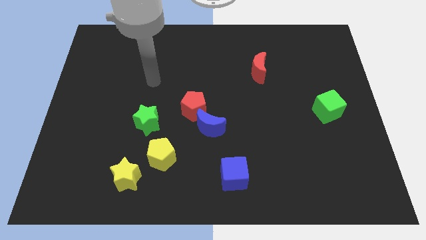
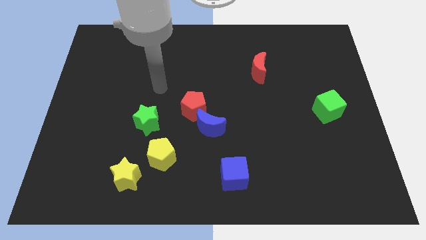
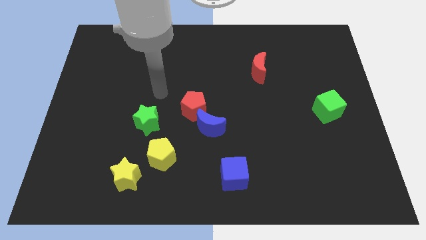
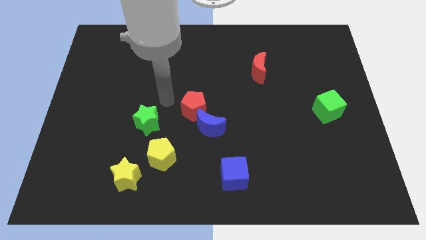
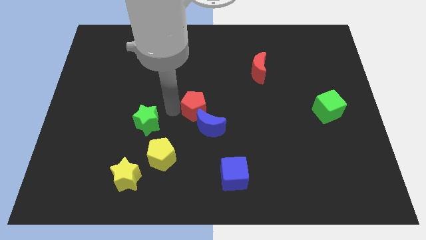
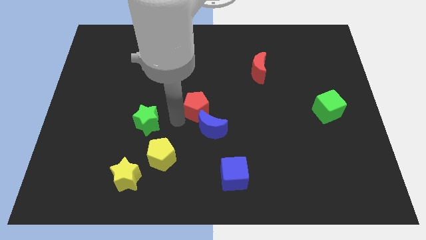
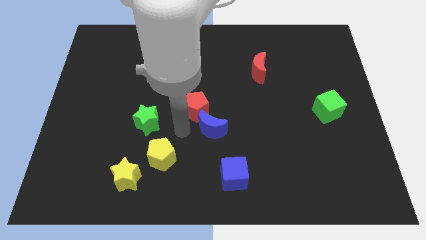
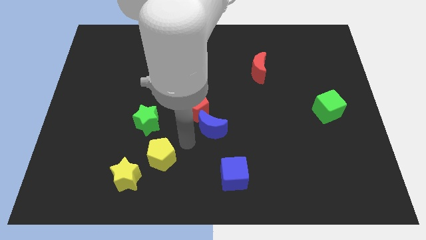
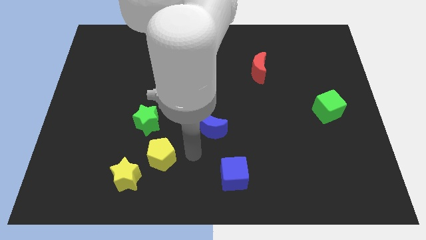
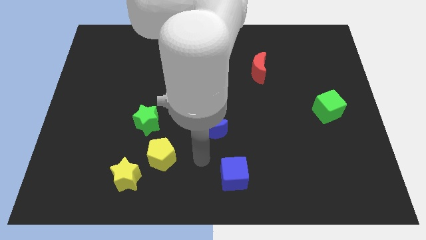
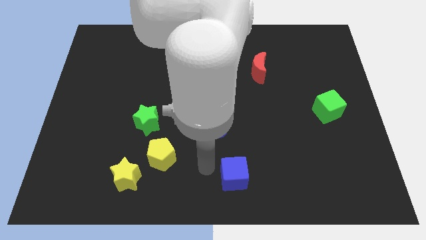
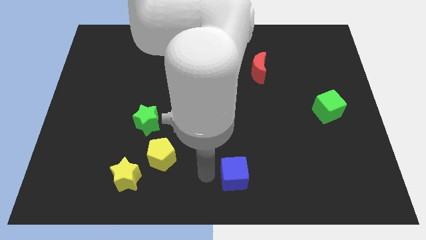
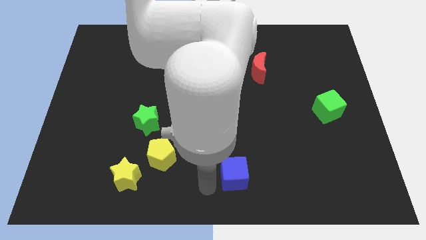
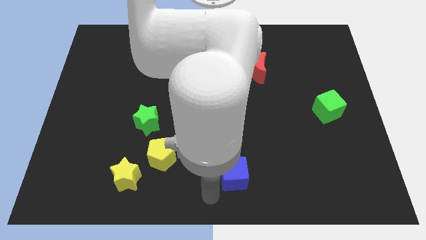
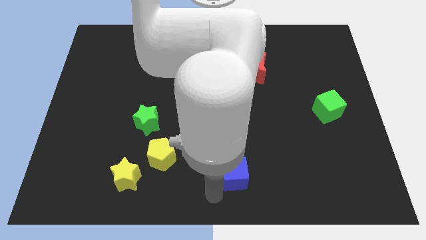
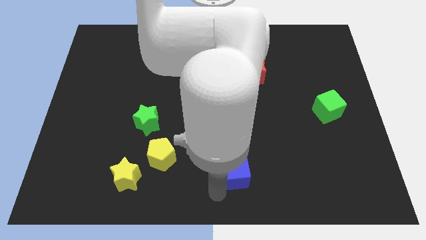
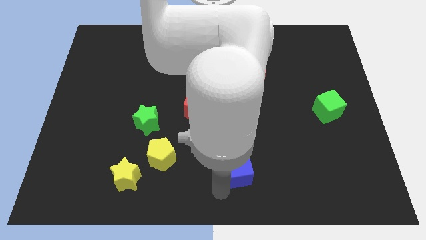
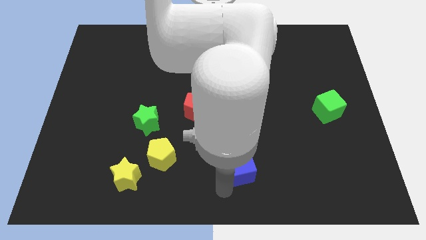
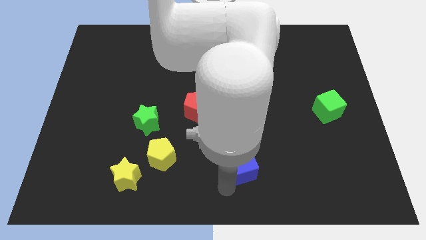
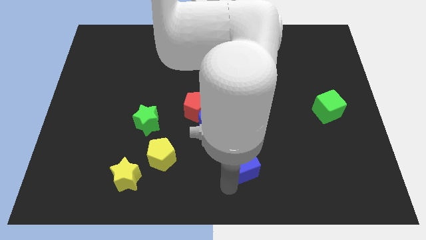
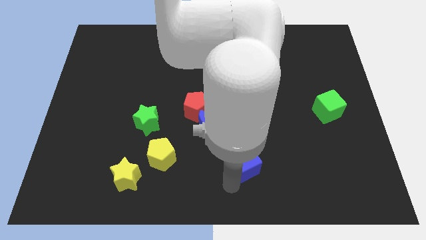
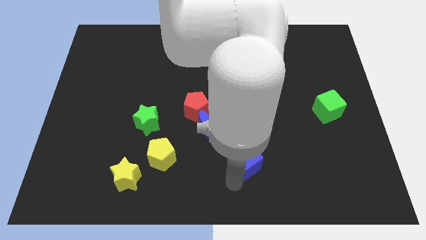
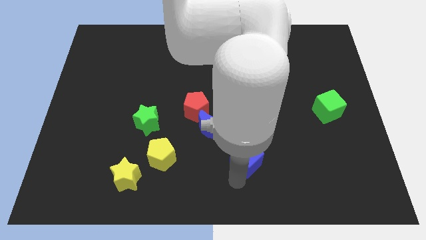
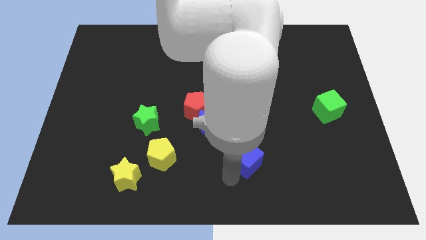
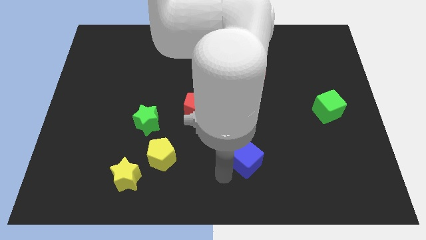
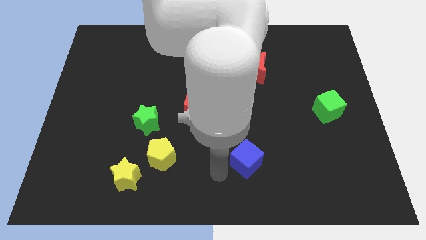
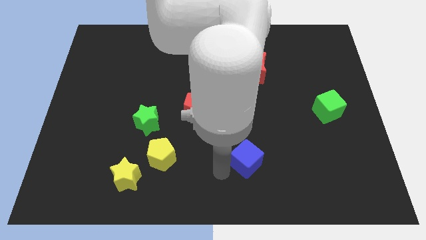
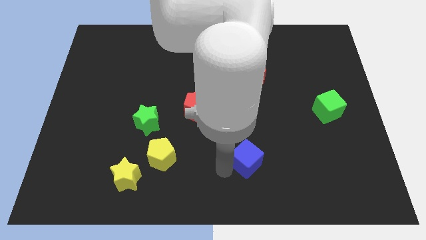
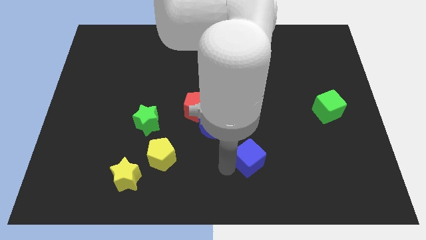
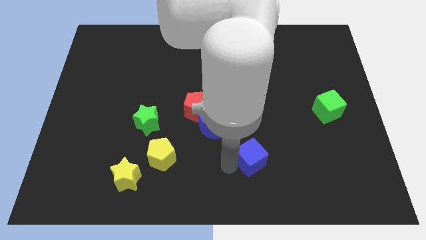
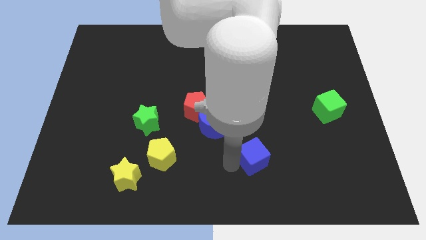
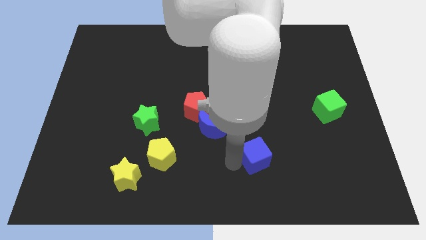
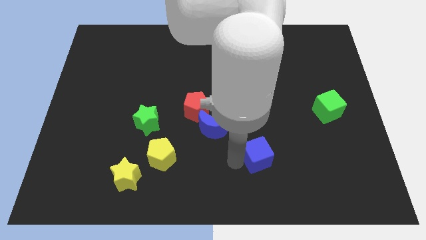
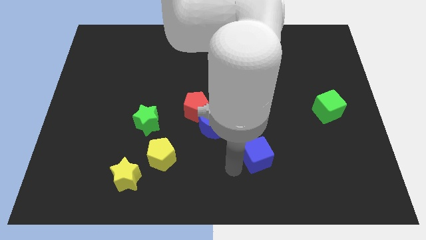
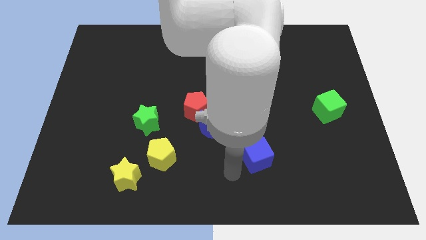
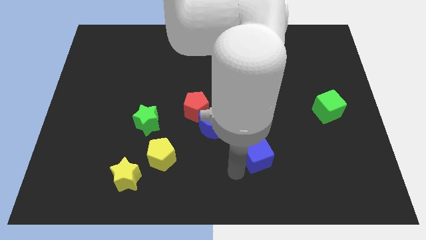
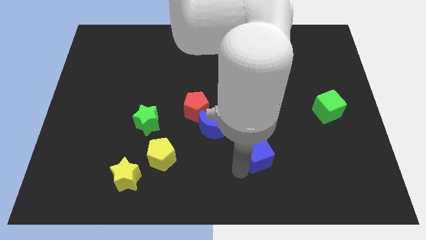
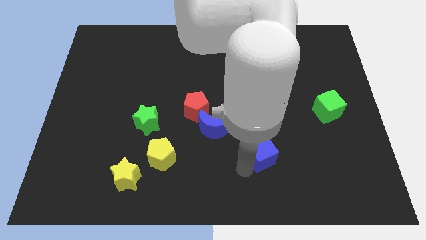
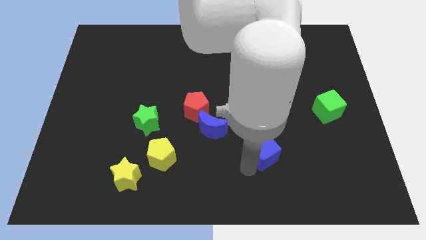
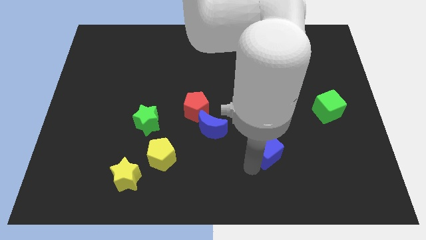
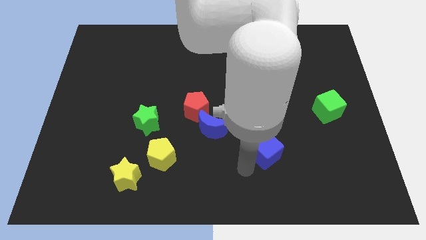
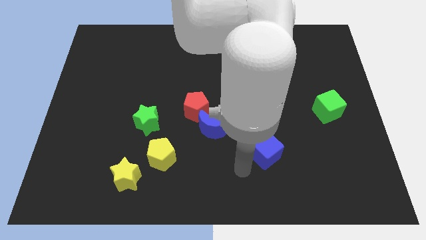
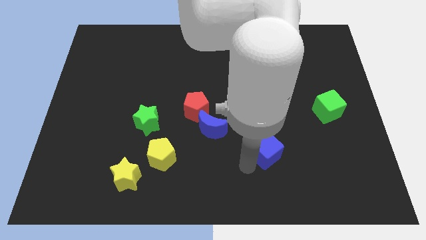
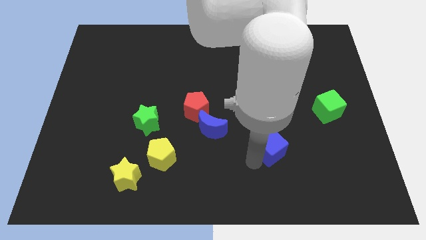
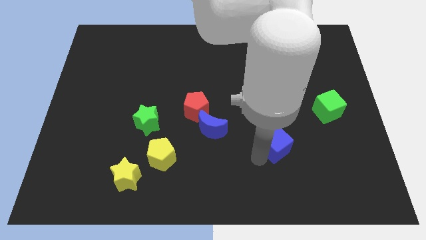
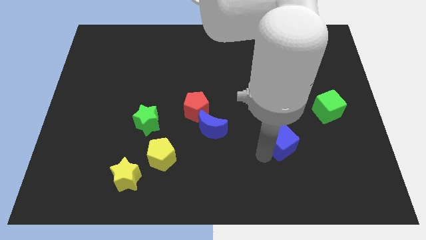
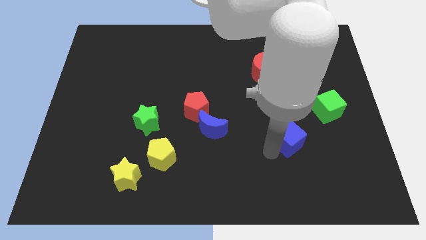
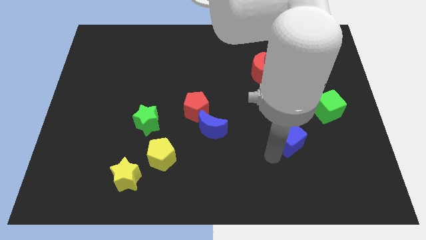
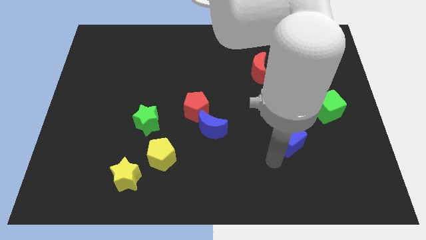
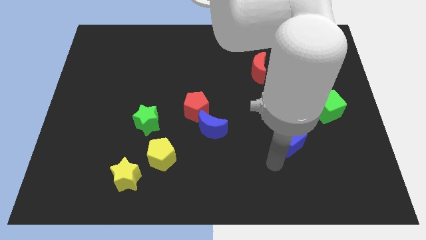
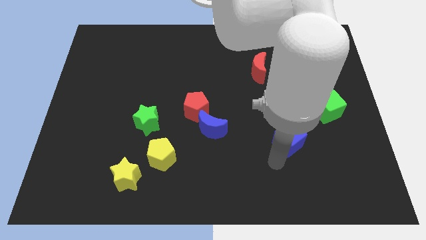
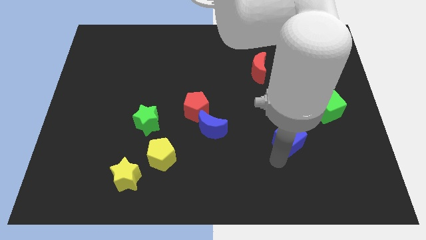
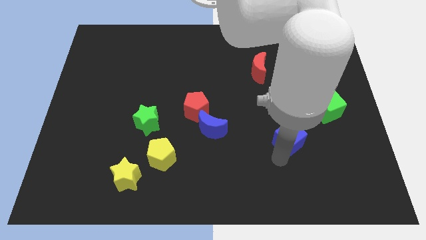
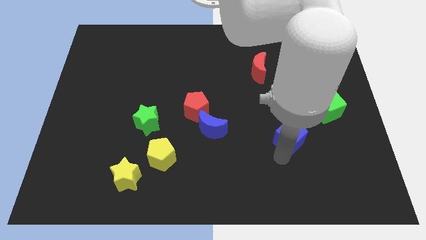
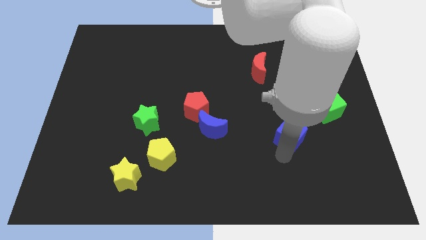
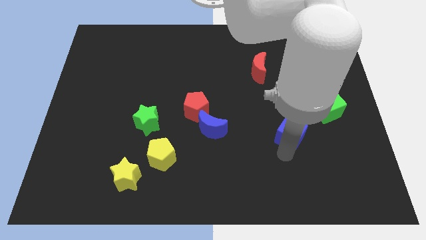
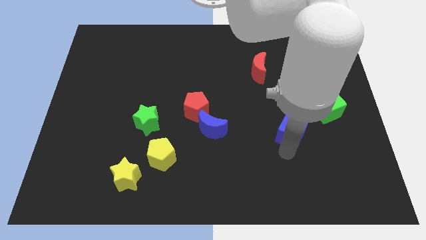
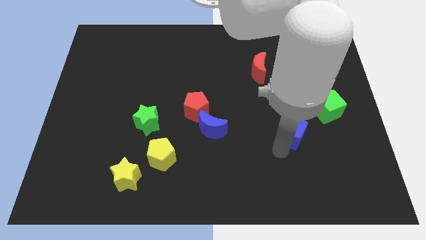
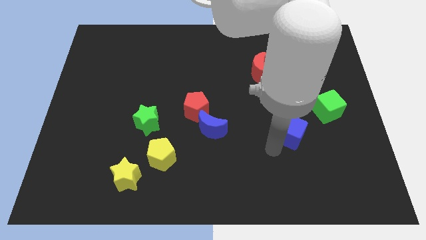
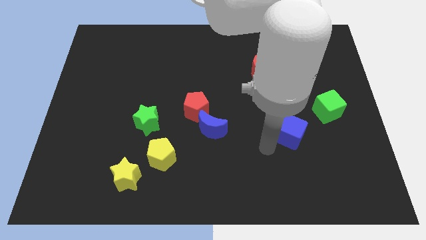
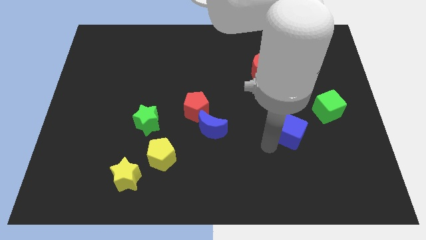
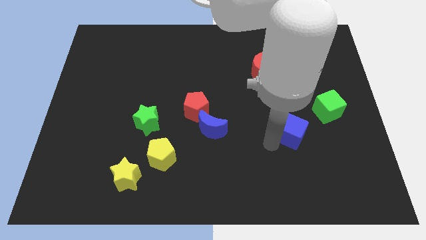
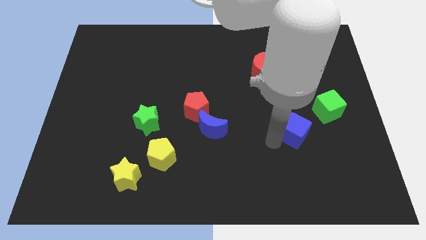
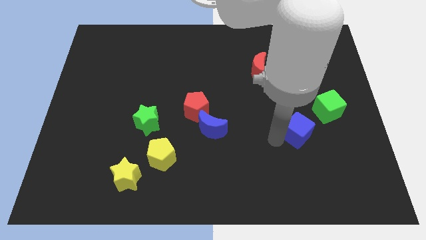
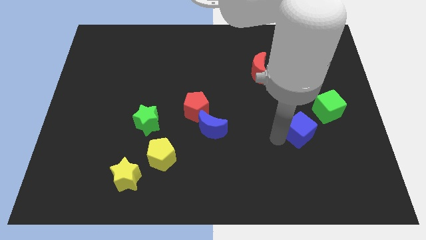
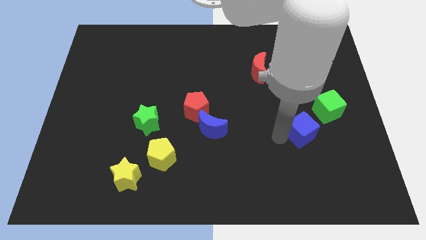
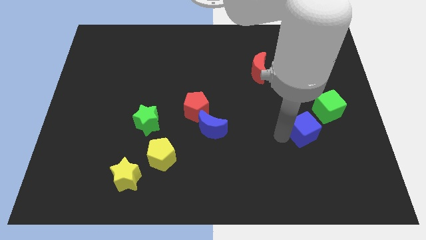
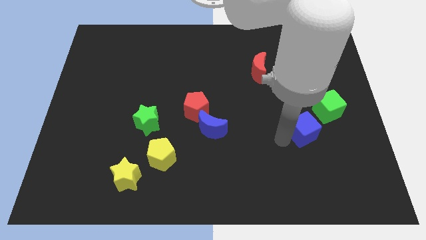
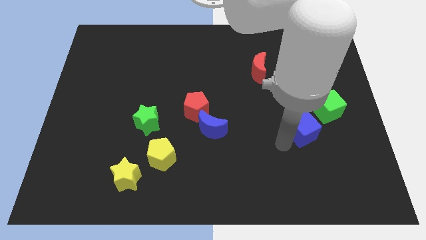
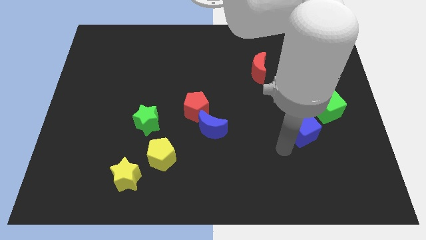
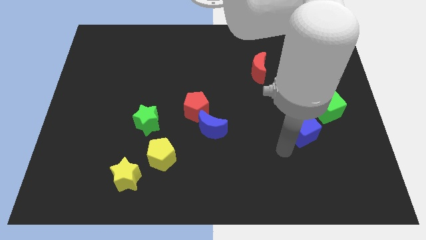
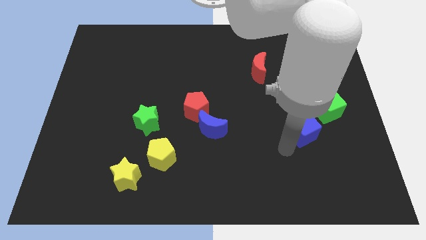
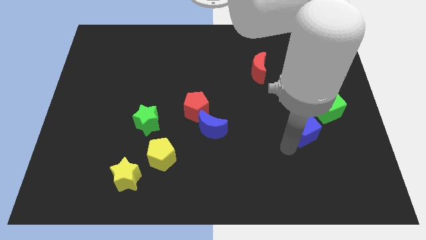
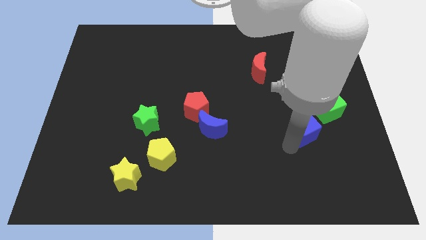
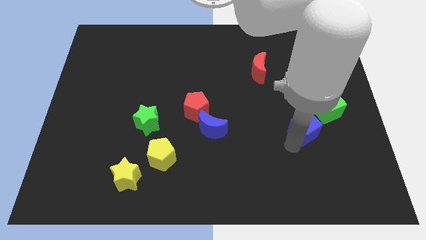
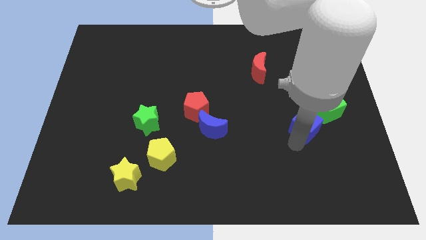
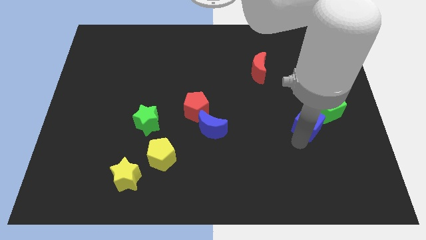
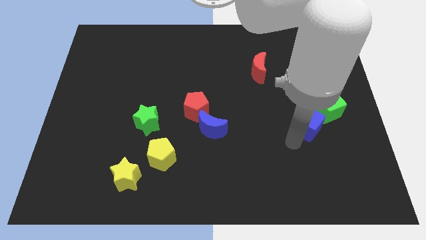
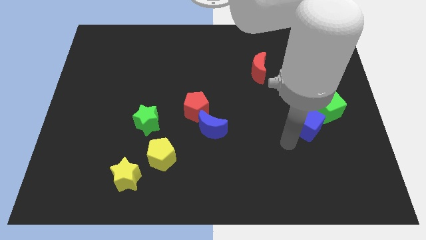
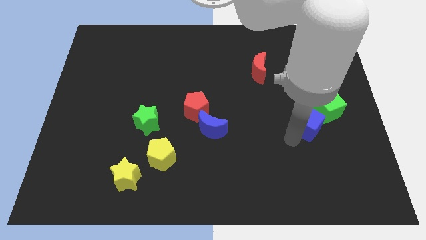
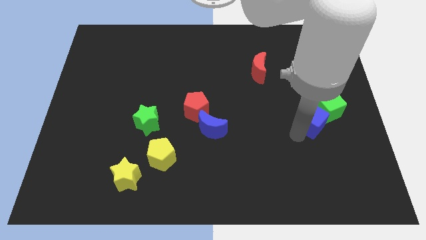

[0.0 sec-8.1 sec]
put the blue cube towards the green cube
